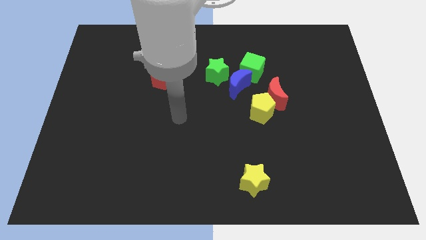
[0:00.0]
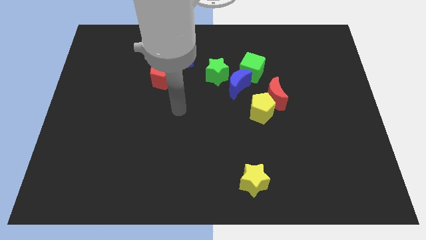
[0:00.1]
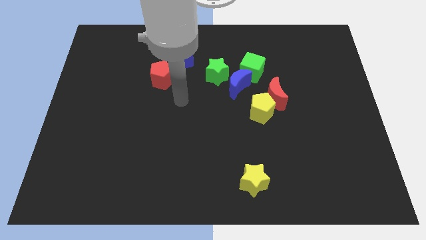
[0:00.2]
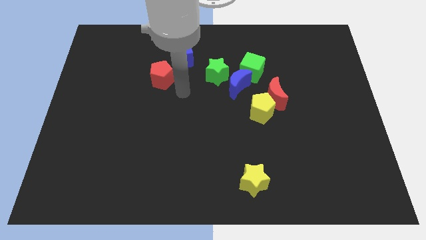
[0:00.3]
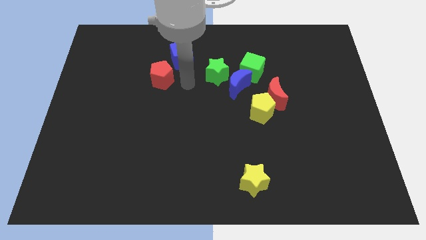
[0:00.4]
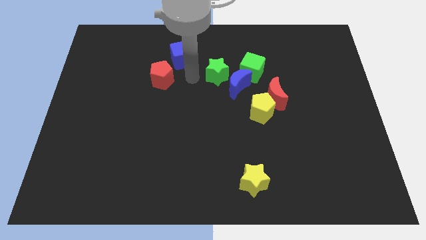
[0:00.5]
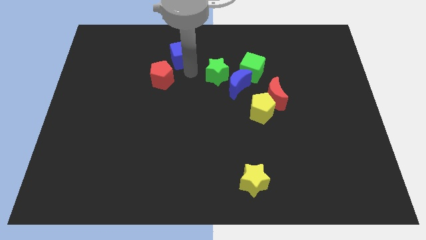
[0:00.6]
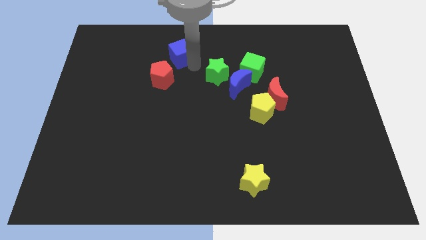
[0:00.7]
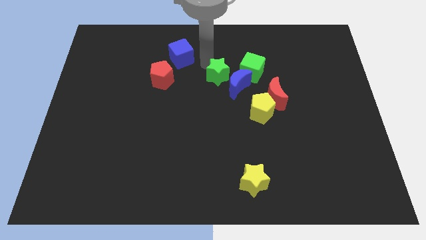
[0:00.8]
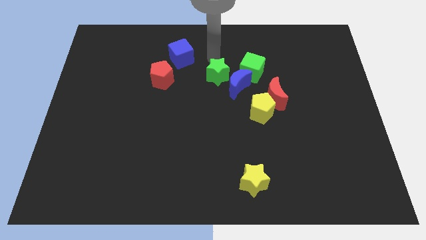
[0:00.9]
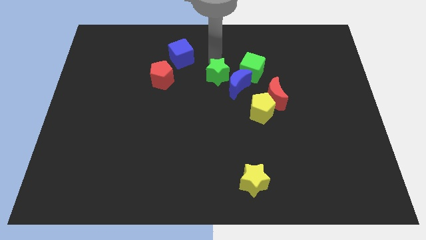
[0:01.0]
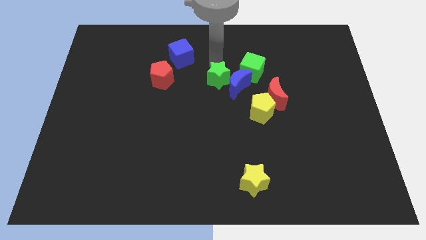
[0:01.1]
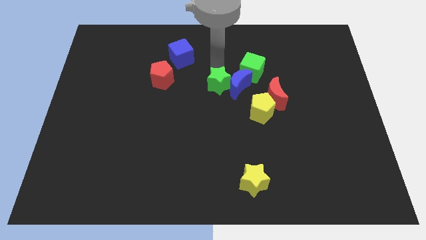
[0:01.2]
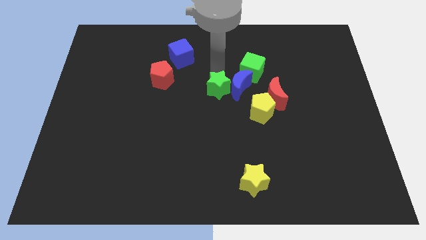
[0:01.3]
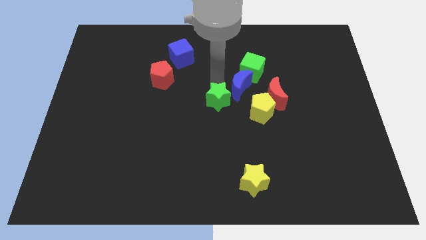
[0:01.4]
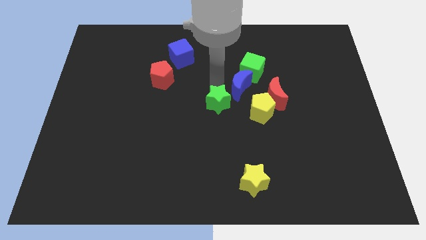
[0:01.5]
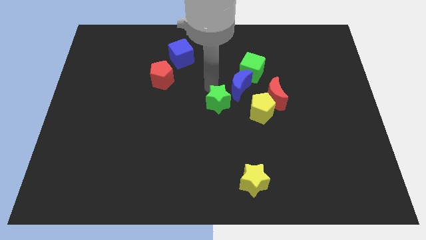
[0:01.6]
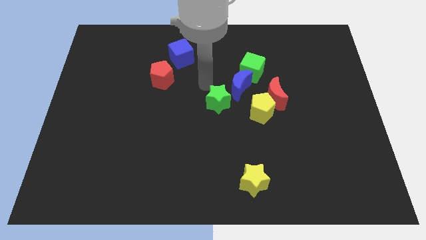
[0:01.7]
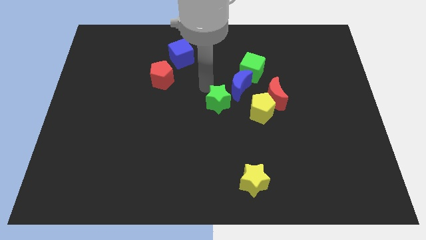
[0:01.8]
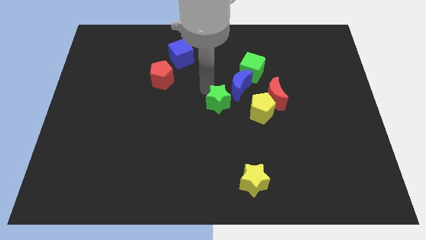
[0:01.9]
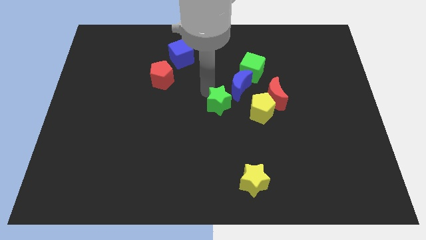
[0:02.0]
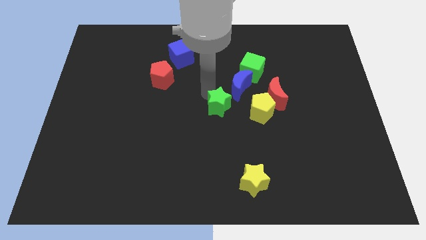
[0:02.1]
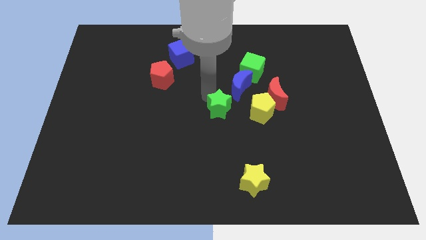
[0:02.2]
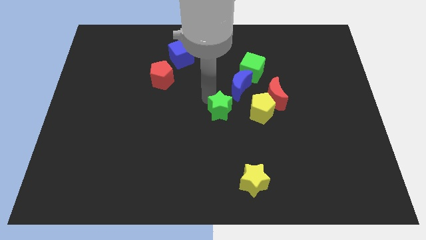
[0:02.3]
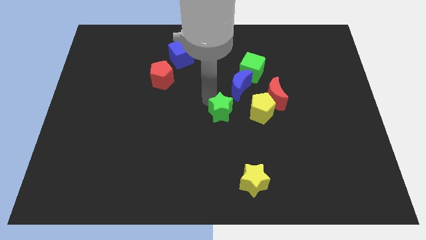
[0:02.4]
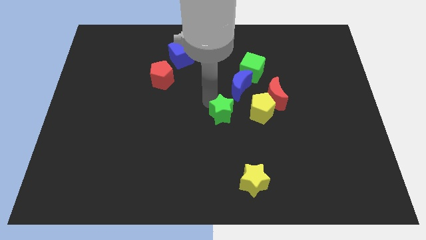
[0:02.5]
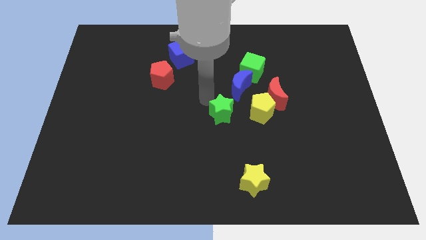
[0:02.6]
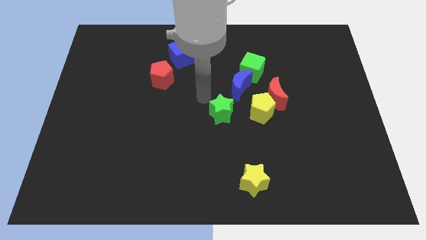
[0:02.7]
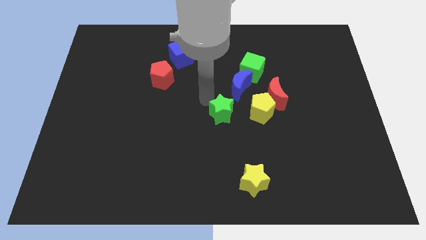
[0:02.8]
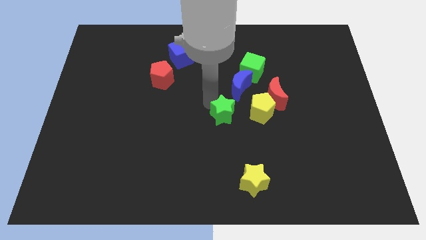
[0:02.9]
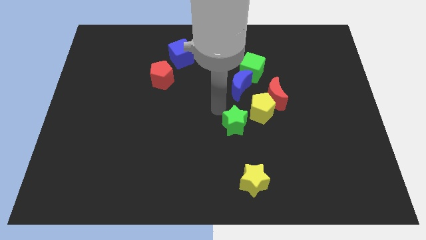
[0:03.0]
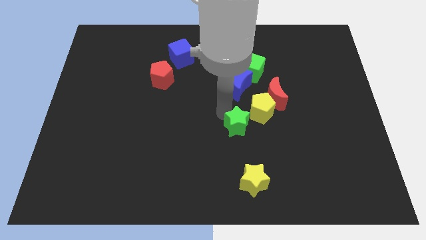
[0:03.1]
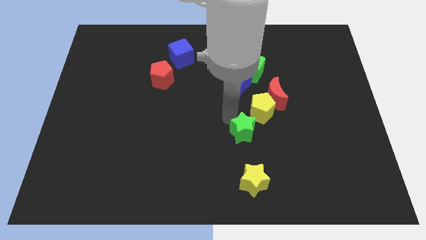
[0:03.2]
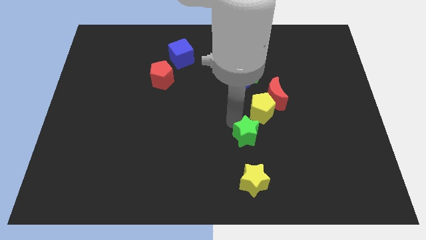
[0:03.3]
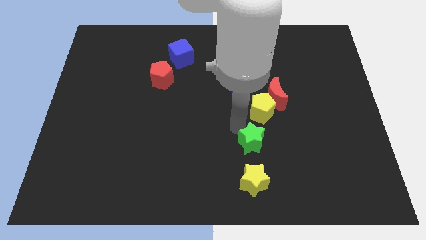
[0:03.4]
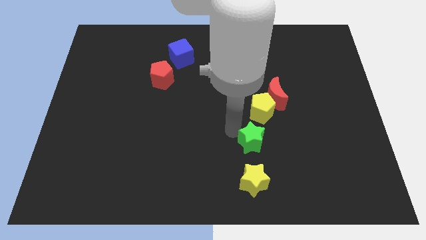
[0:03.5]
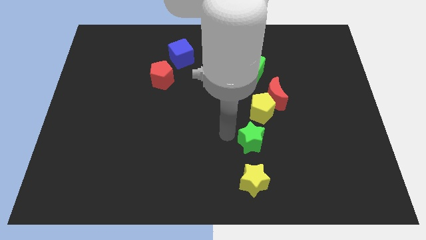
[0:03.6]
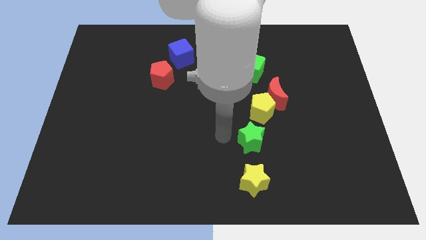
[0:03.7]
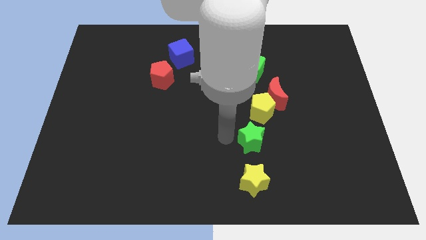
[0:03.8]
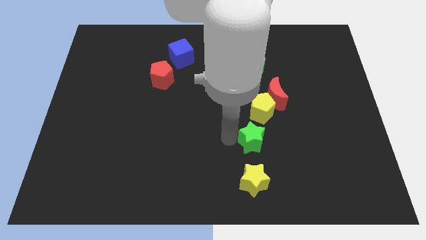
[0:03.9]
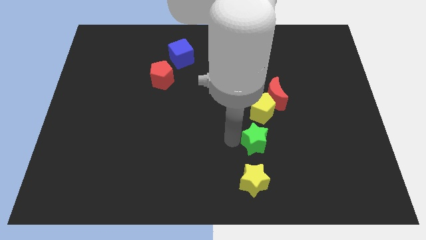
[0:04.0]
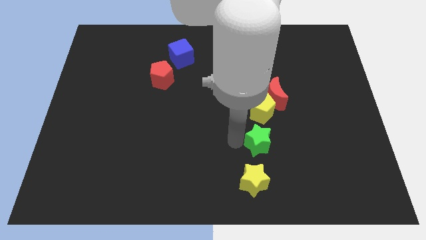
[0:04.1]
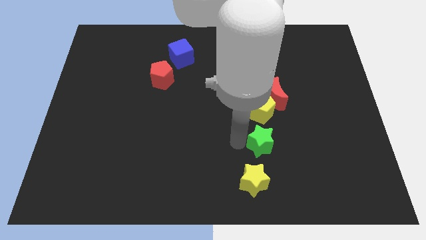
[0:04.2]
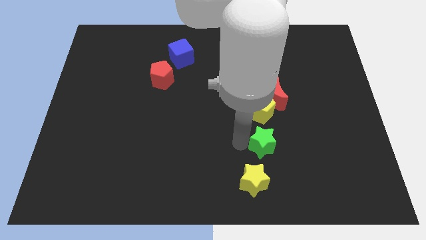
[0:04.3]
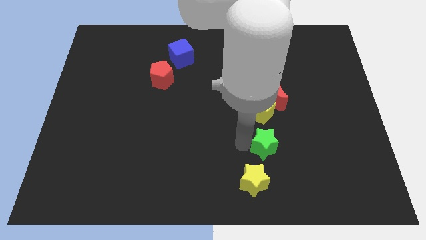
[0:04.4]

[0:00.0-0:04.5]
slide the green star down and right diagonally

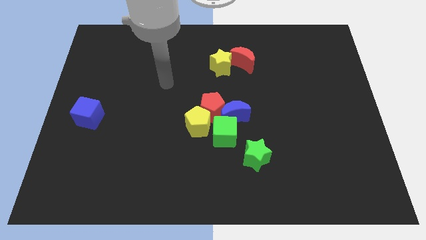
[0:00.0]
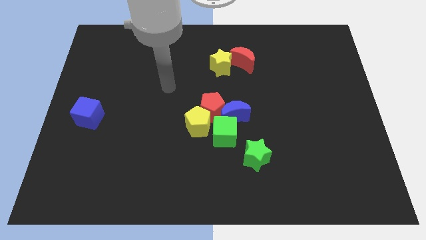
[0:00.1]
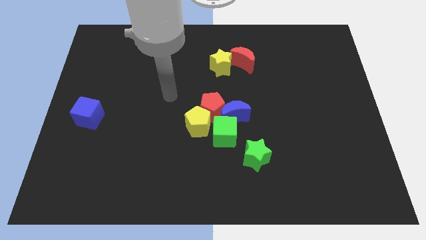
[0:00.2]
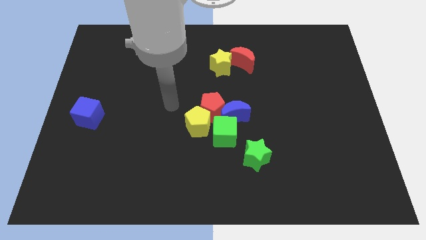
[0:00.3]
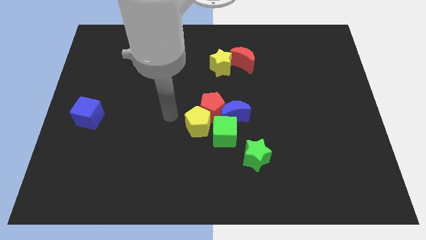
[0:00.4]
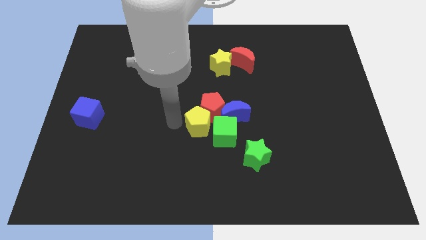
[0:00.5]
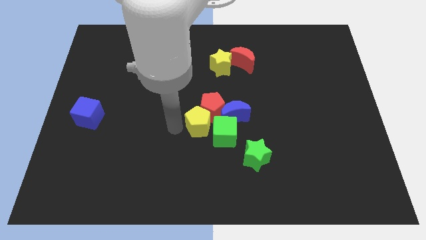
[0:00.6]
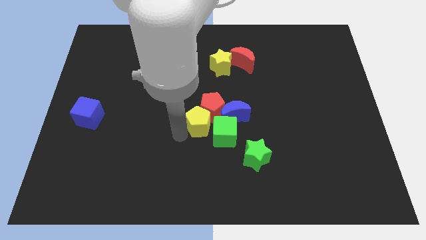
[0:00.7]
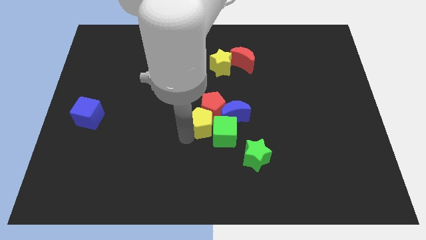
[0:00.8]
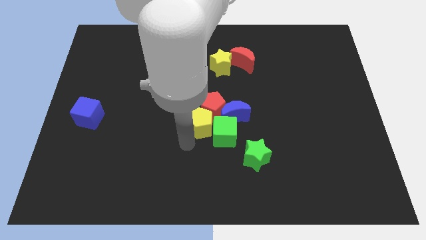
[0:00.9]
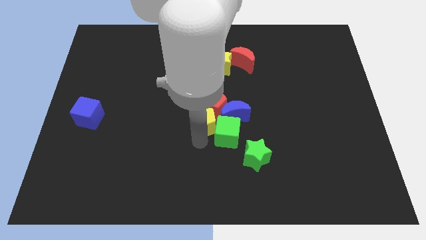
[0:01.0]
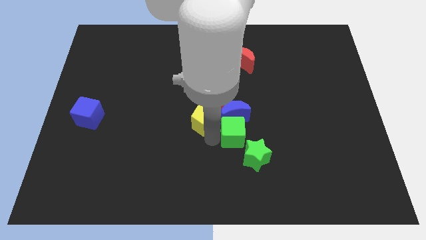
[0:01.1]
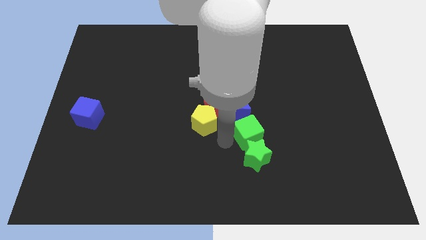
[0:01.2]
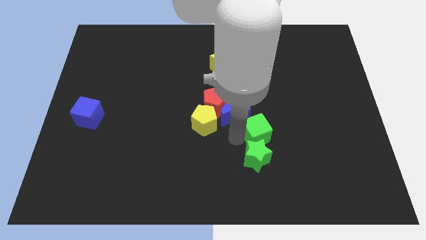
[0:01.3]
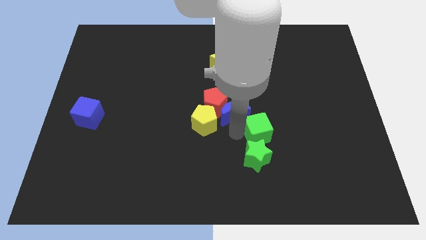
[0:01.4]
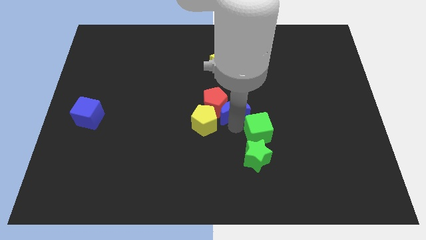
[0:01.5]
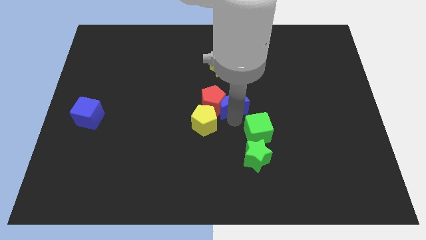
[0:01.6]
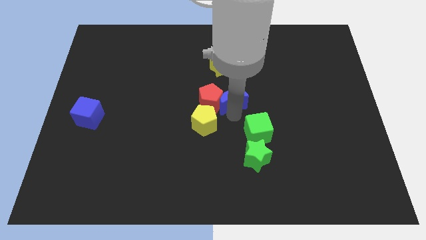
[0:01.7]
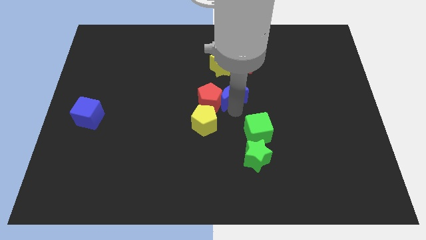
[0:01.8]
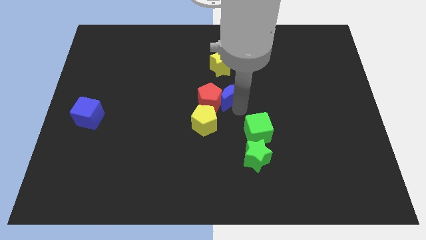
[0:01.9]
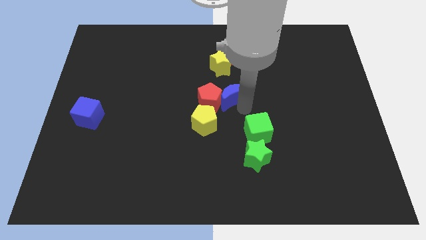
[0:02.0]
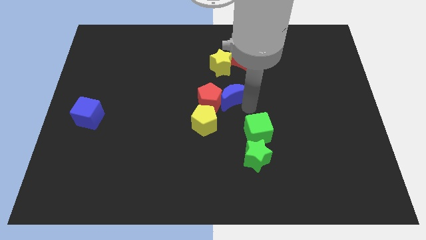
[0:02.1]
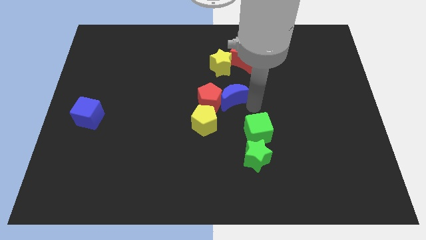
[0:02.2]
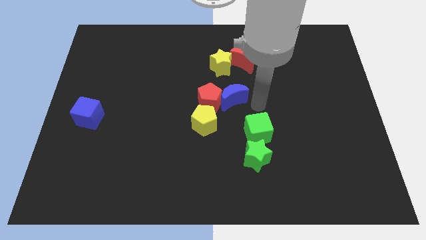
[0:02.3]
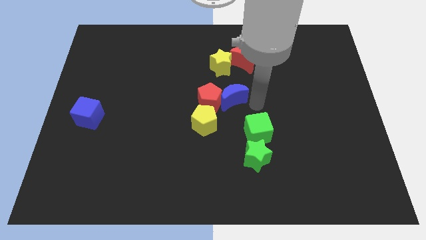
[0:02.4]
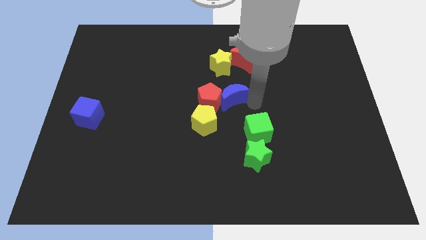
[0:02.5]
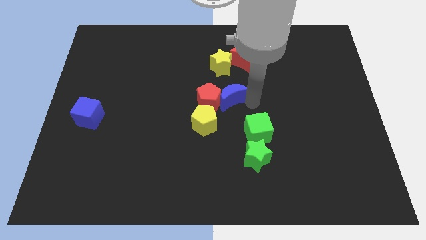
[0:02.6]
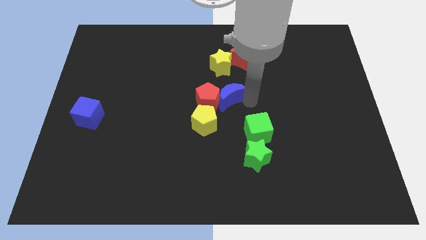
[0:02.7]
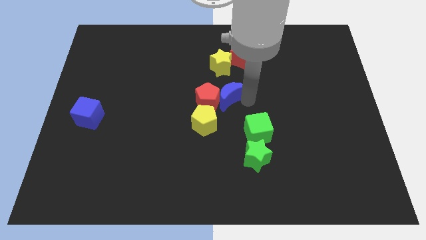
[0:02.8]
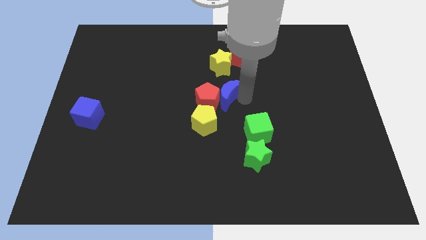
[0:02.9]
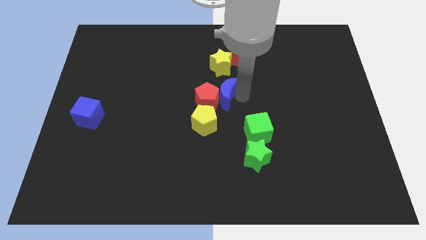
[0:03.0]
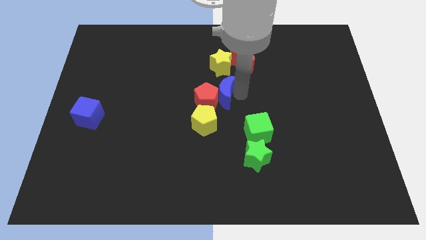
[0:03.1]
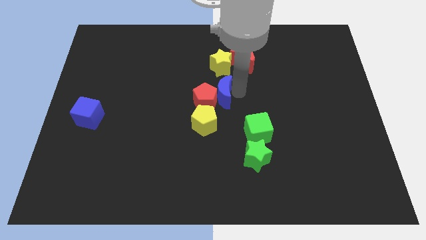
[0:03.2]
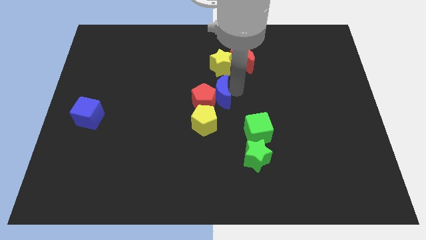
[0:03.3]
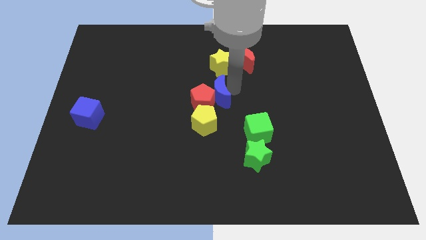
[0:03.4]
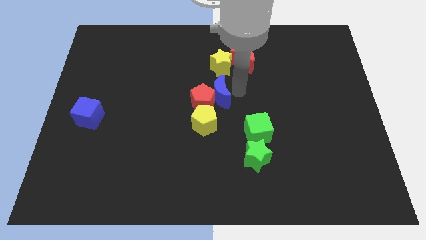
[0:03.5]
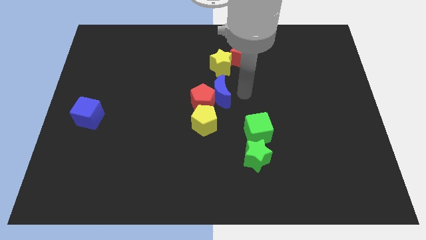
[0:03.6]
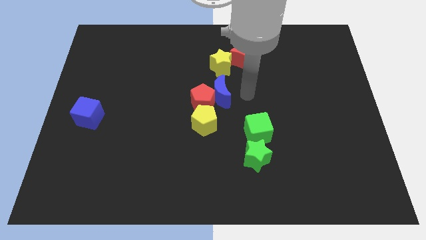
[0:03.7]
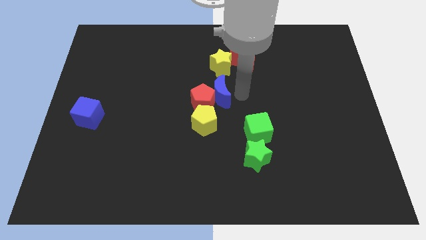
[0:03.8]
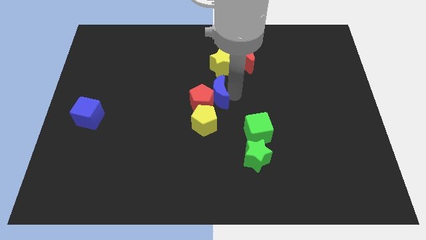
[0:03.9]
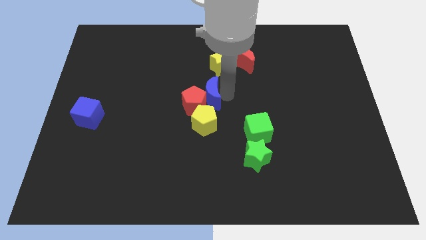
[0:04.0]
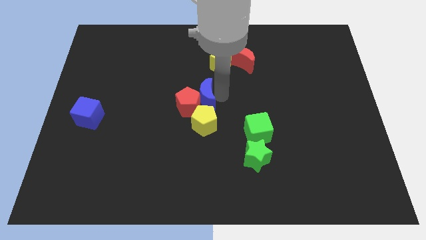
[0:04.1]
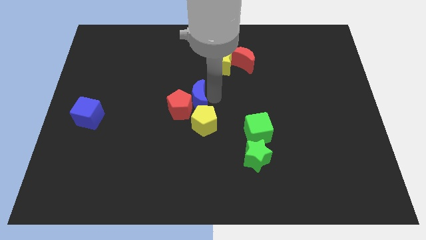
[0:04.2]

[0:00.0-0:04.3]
move the blue moon a bit left
